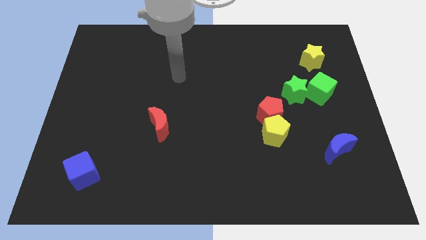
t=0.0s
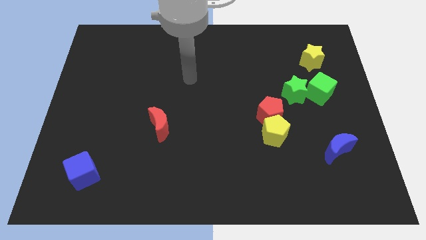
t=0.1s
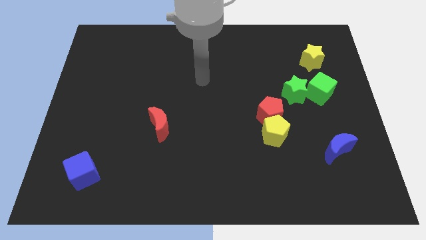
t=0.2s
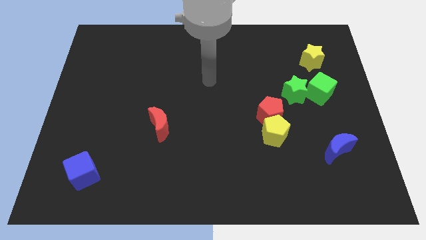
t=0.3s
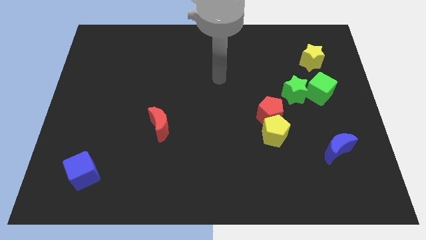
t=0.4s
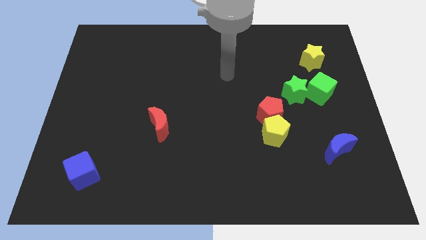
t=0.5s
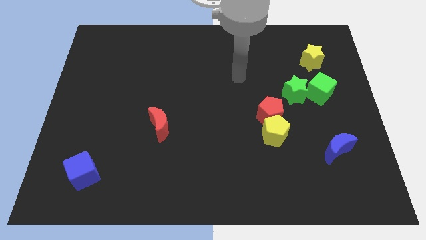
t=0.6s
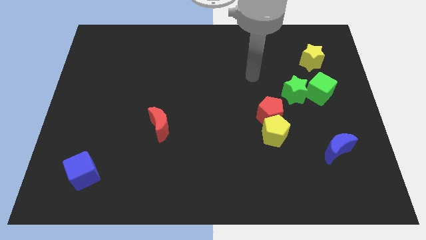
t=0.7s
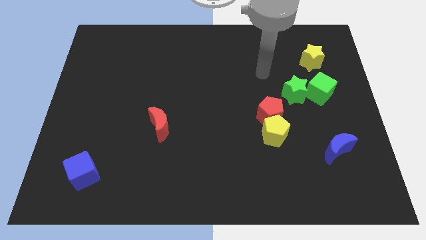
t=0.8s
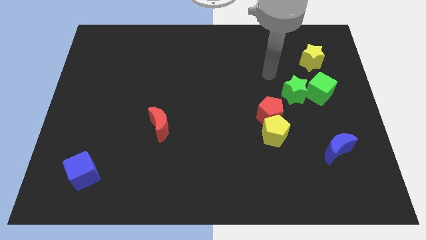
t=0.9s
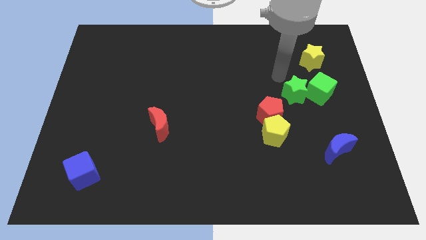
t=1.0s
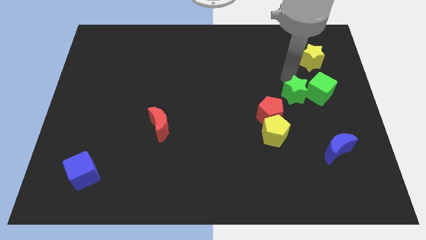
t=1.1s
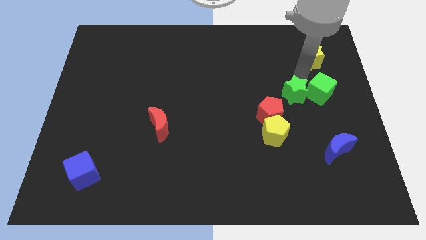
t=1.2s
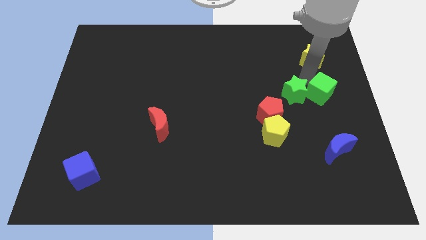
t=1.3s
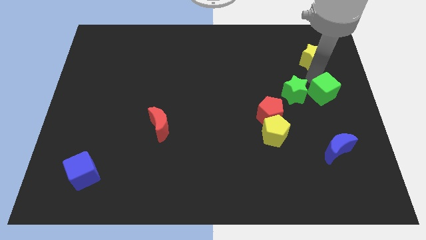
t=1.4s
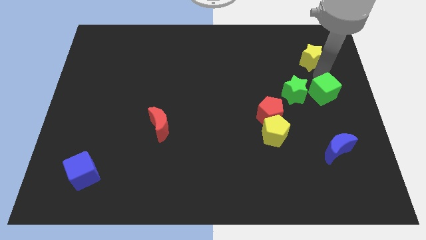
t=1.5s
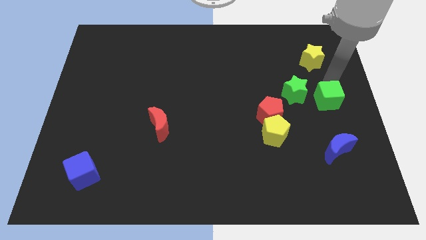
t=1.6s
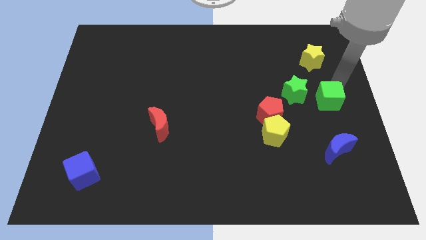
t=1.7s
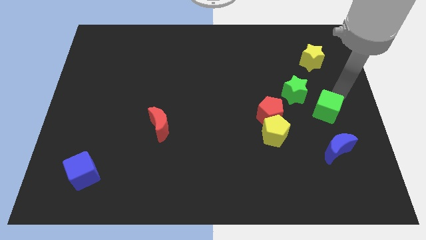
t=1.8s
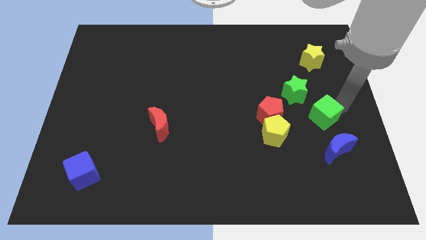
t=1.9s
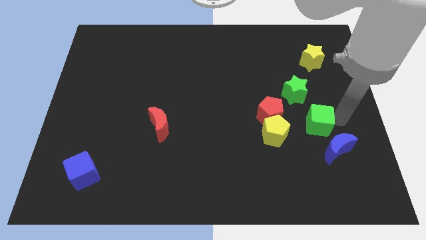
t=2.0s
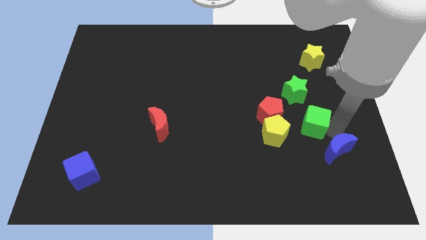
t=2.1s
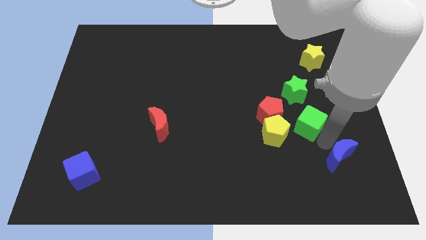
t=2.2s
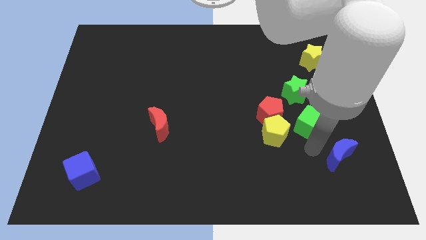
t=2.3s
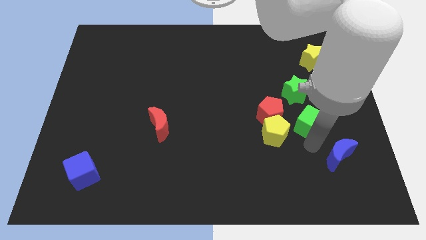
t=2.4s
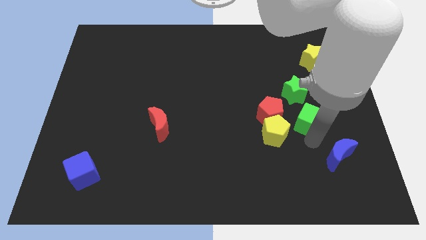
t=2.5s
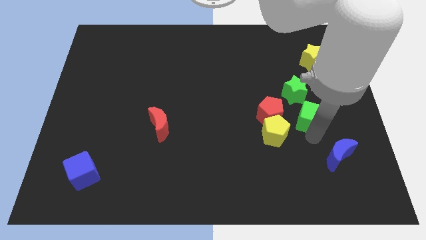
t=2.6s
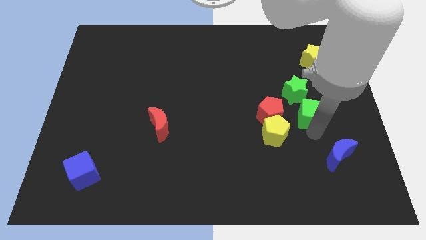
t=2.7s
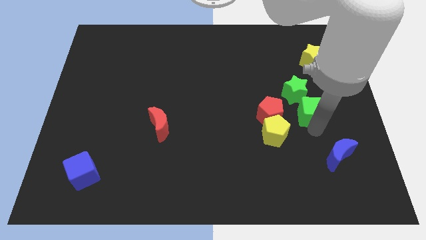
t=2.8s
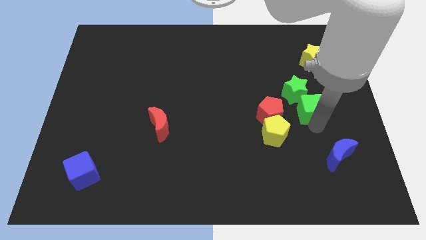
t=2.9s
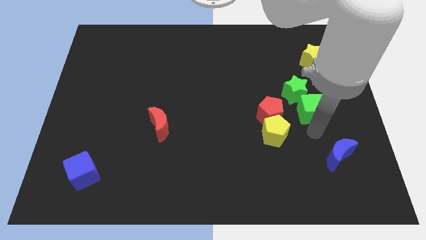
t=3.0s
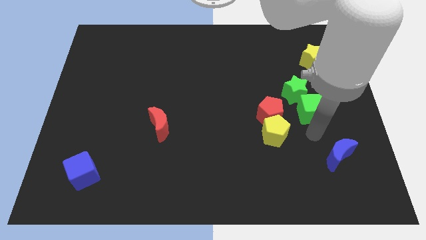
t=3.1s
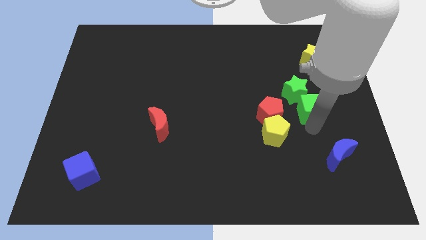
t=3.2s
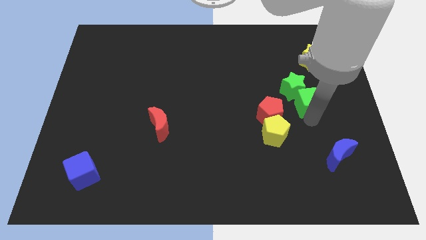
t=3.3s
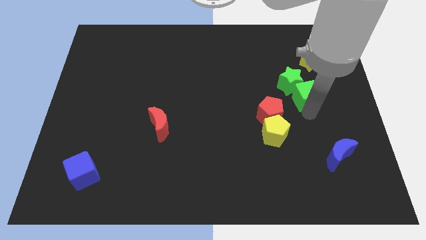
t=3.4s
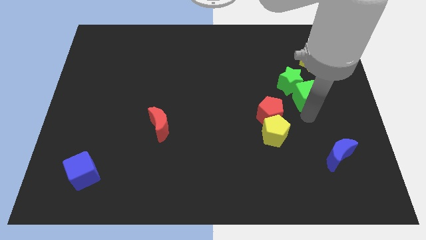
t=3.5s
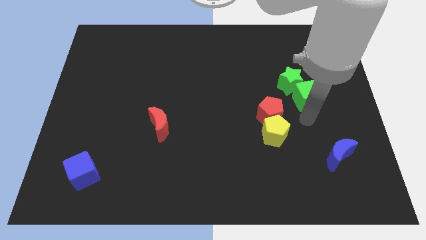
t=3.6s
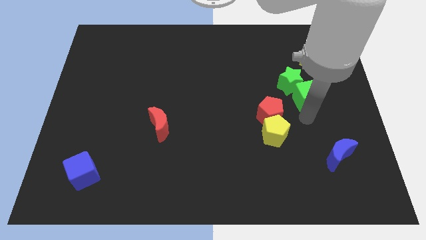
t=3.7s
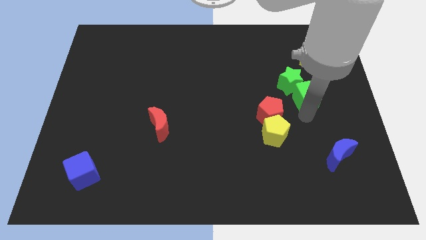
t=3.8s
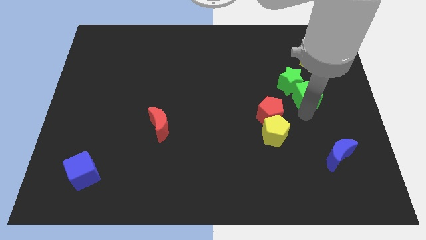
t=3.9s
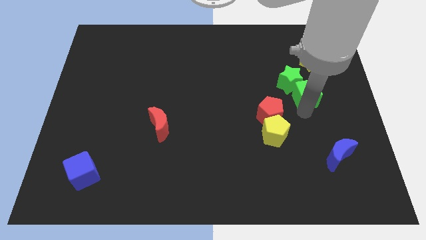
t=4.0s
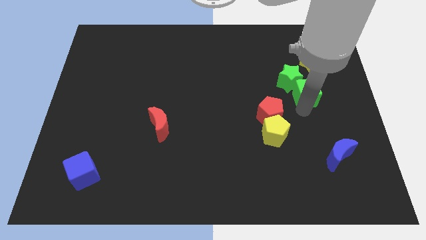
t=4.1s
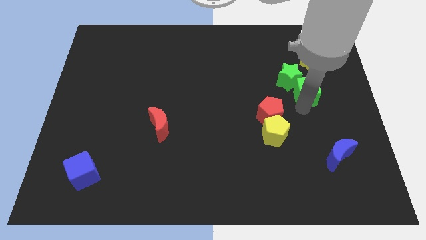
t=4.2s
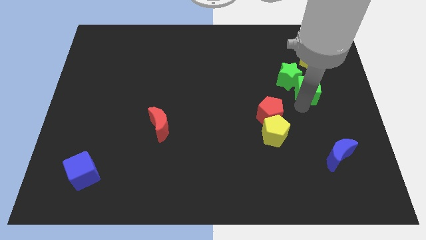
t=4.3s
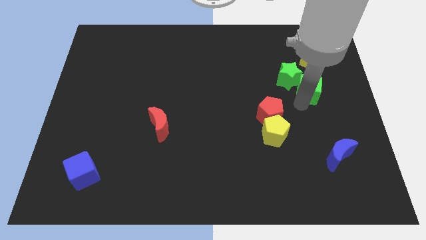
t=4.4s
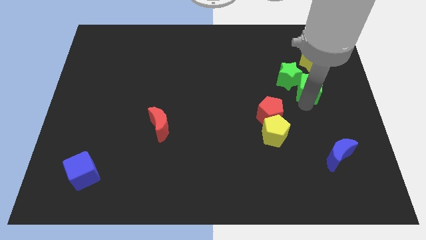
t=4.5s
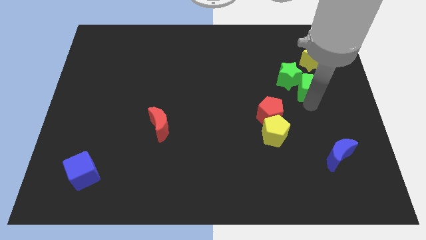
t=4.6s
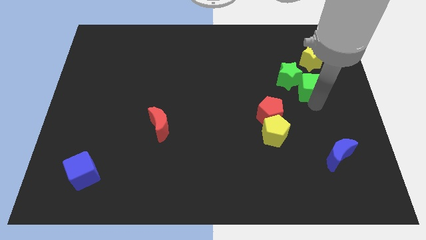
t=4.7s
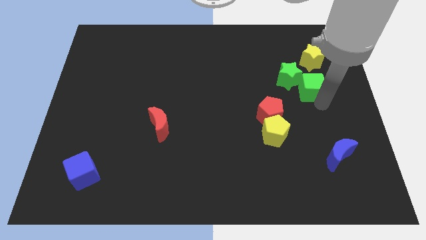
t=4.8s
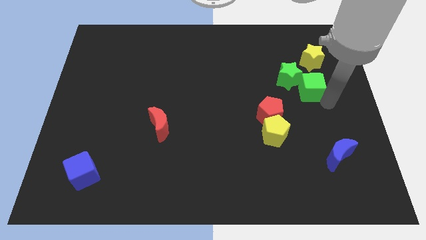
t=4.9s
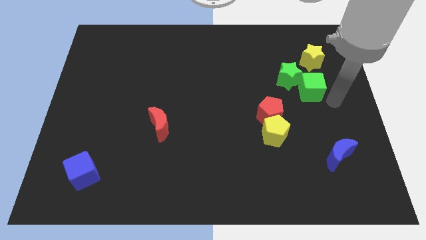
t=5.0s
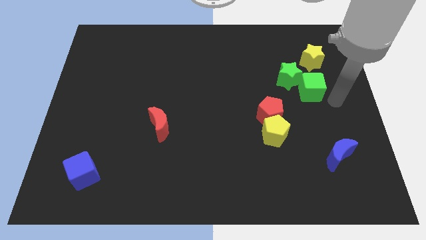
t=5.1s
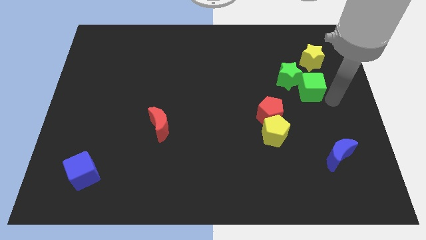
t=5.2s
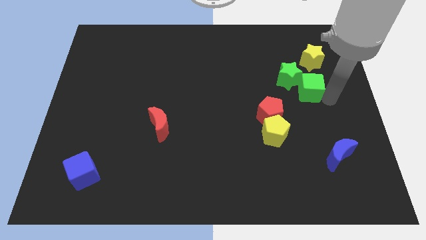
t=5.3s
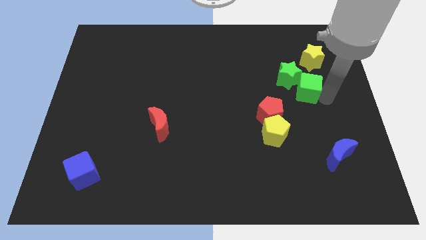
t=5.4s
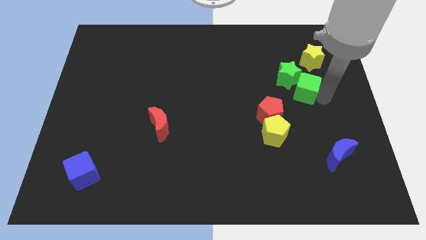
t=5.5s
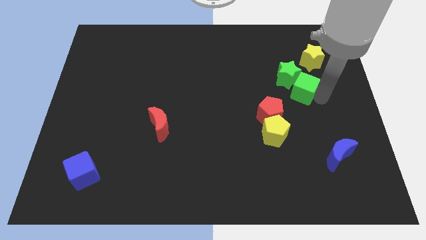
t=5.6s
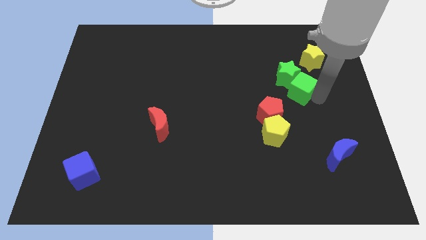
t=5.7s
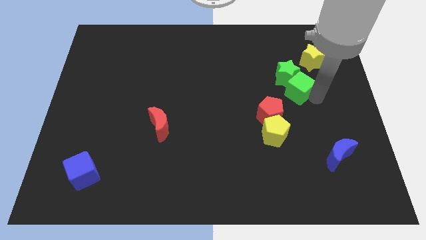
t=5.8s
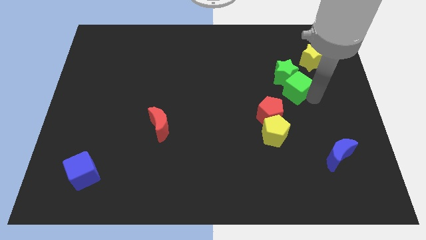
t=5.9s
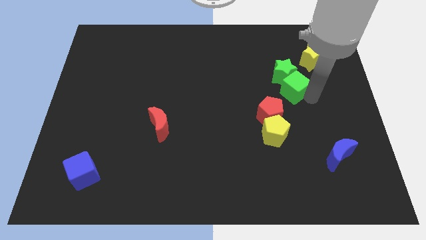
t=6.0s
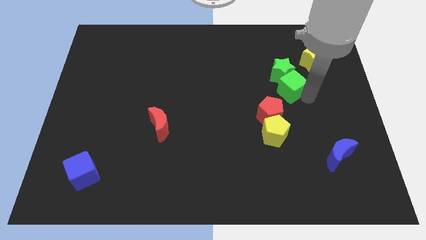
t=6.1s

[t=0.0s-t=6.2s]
slightly move the green cube left

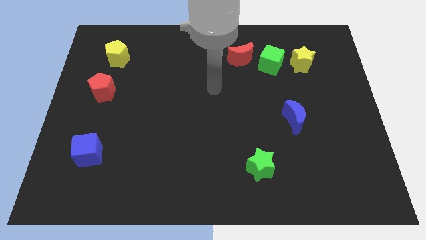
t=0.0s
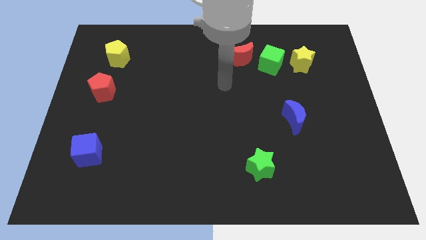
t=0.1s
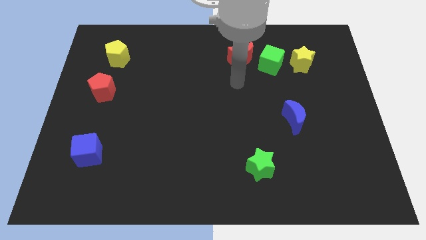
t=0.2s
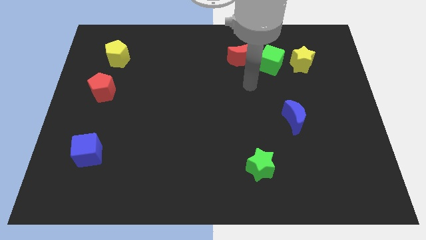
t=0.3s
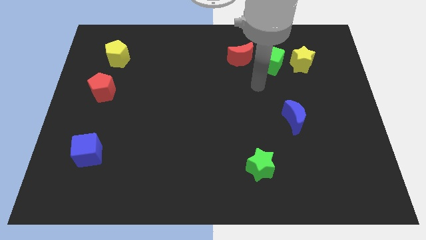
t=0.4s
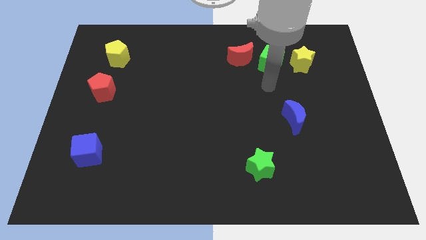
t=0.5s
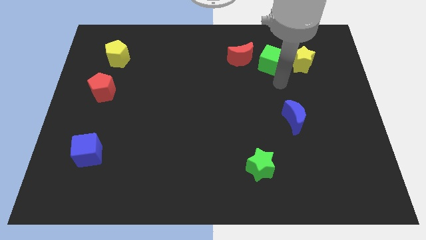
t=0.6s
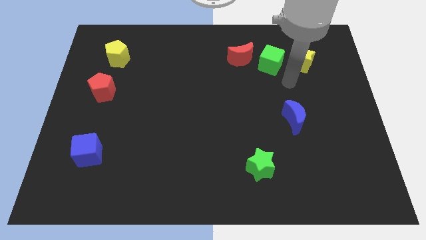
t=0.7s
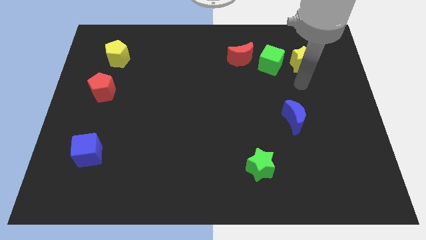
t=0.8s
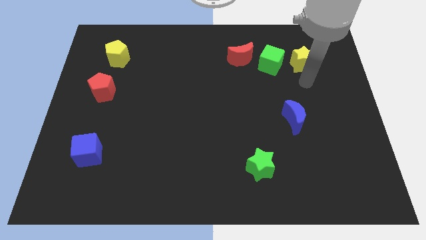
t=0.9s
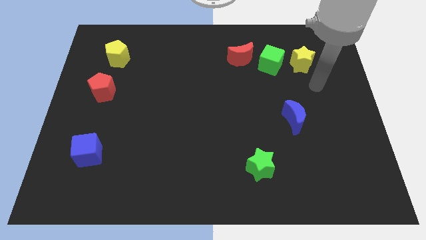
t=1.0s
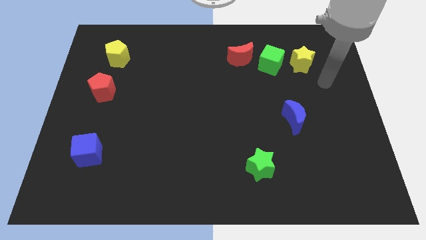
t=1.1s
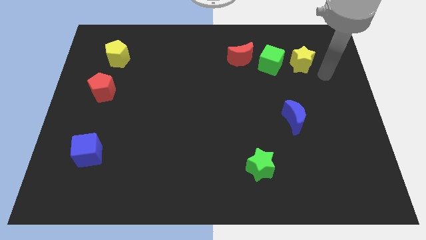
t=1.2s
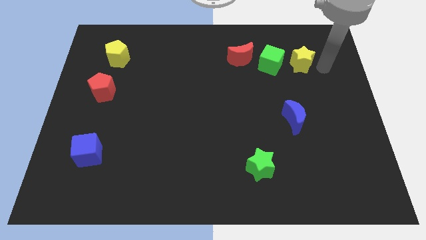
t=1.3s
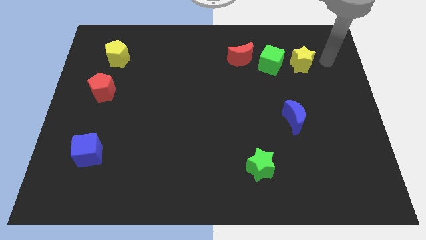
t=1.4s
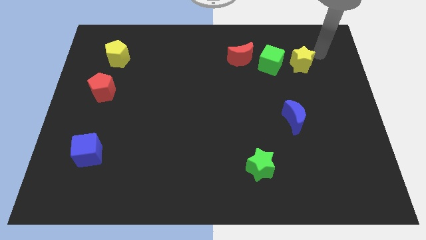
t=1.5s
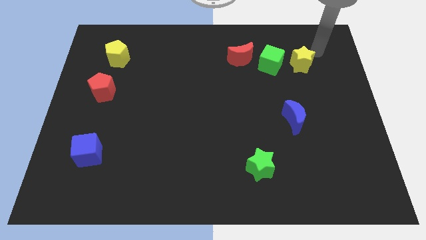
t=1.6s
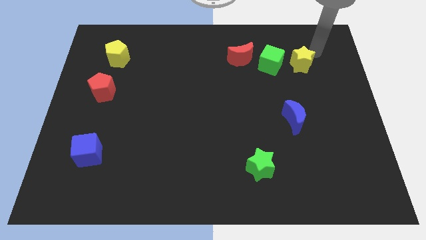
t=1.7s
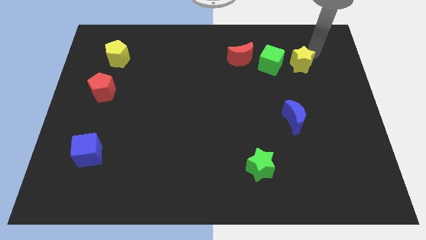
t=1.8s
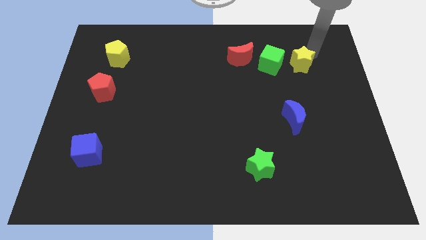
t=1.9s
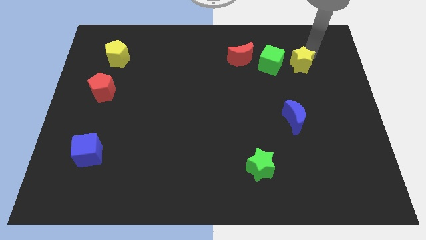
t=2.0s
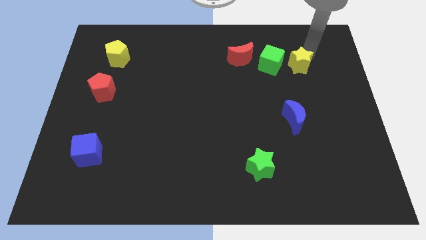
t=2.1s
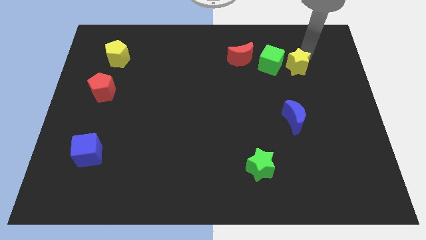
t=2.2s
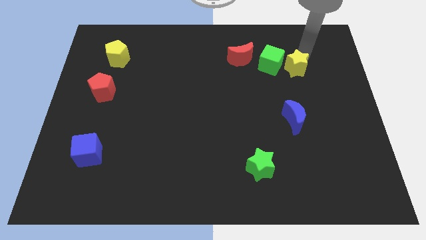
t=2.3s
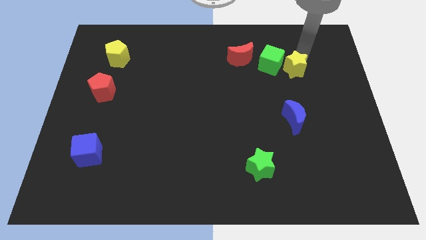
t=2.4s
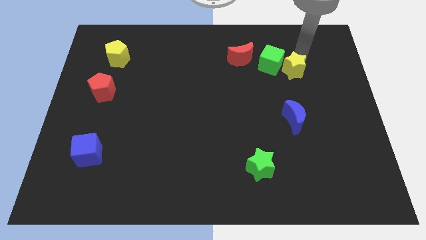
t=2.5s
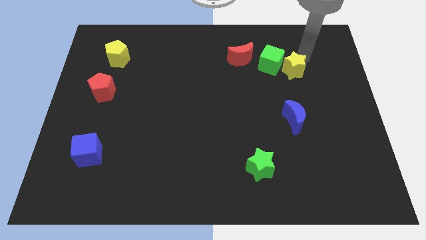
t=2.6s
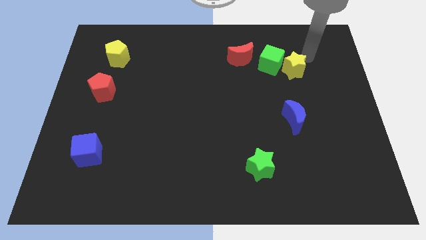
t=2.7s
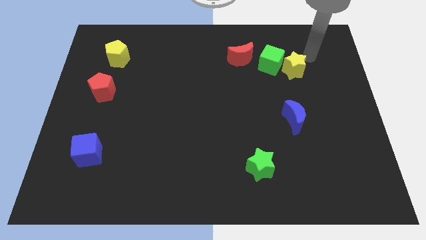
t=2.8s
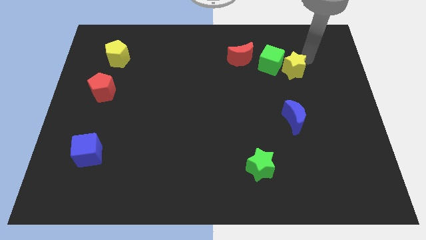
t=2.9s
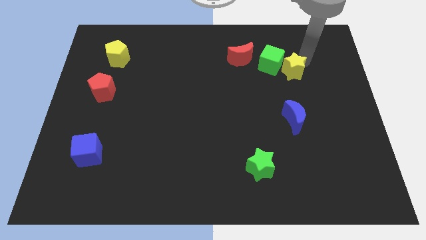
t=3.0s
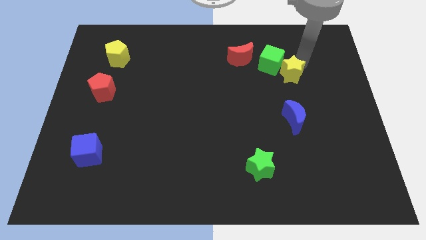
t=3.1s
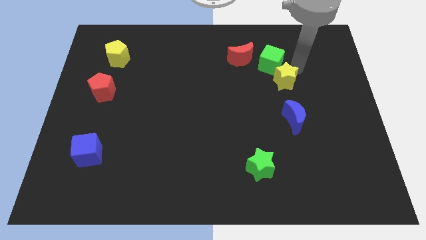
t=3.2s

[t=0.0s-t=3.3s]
slide the yellow star a bit diagonally down and left
